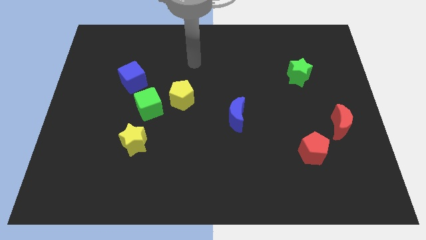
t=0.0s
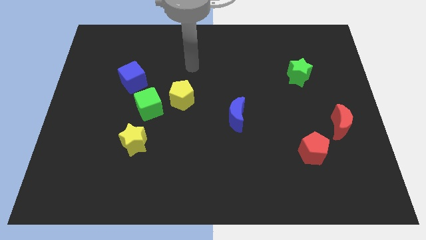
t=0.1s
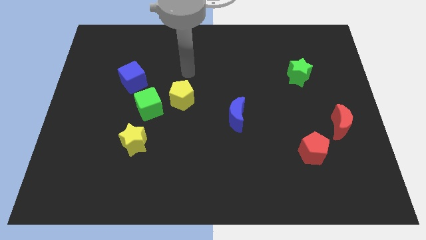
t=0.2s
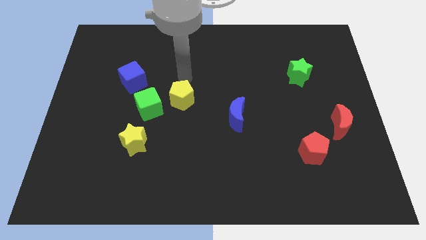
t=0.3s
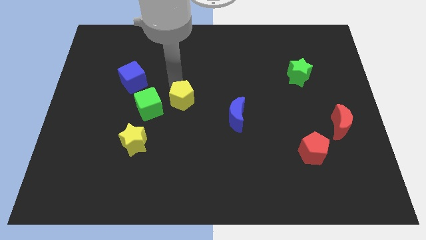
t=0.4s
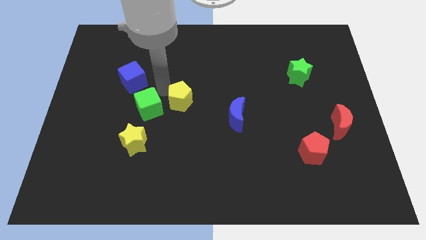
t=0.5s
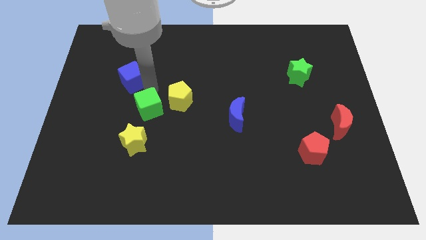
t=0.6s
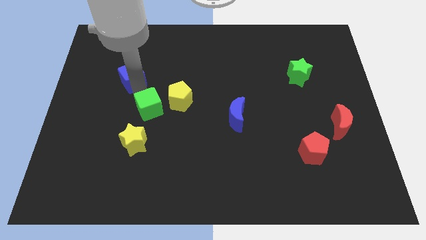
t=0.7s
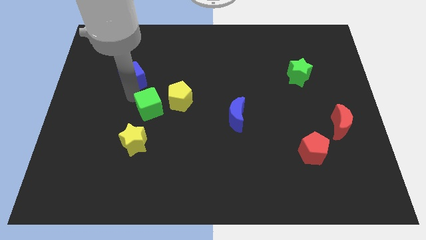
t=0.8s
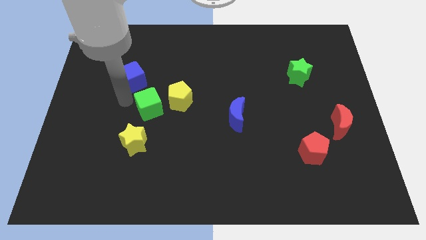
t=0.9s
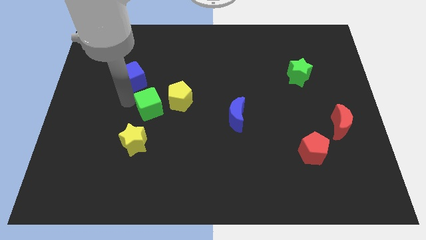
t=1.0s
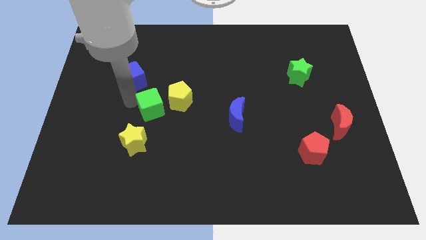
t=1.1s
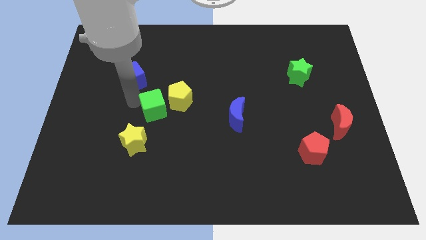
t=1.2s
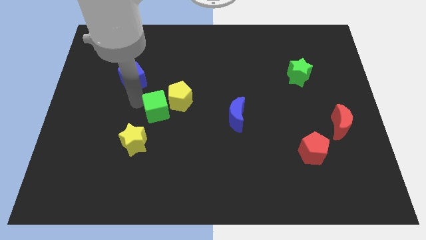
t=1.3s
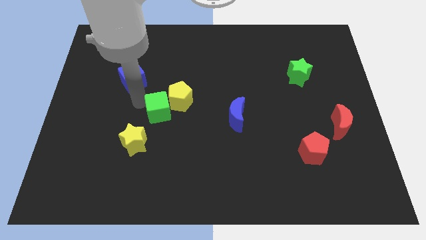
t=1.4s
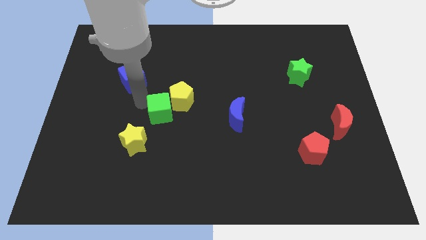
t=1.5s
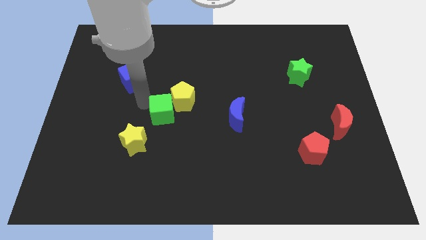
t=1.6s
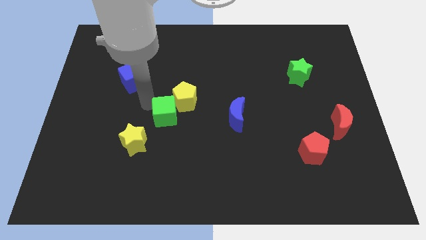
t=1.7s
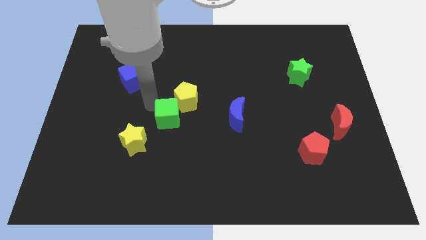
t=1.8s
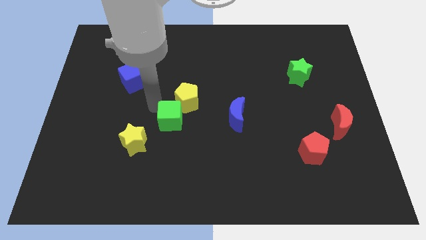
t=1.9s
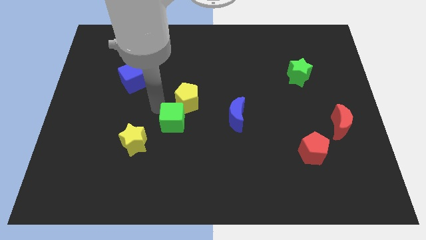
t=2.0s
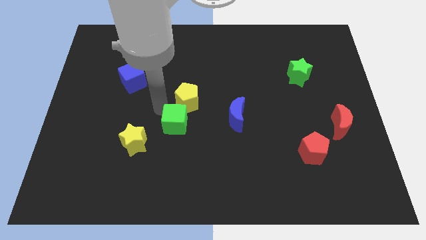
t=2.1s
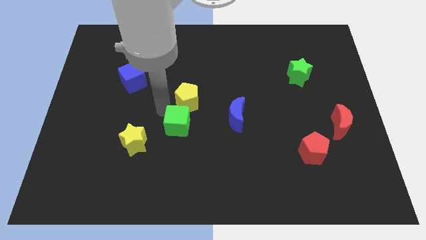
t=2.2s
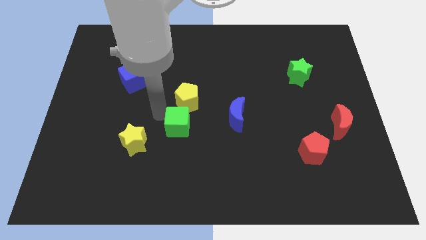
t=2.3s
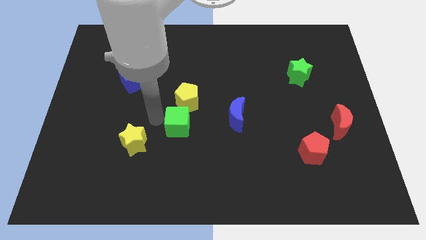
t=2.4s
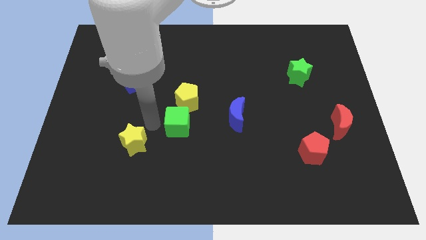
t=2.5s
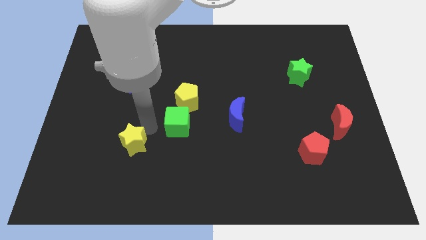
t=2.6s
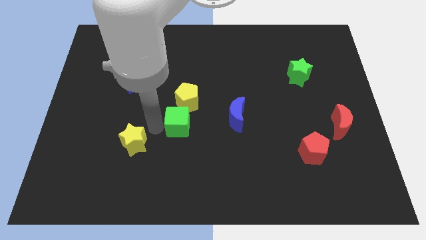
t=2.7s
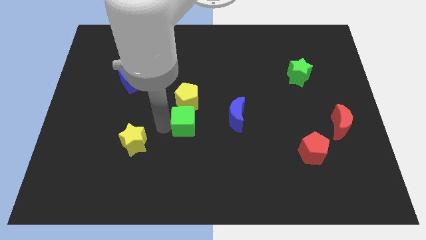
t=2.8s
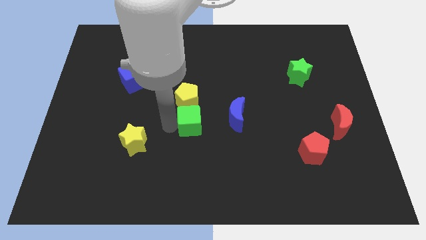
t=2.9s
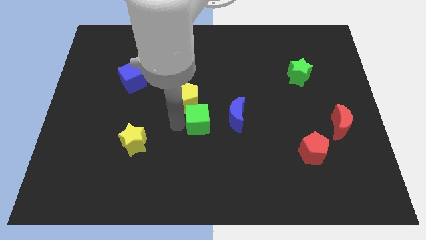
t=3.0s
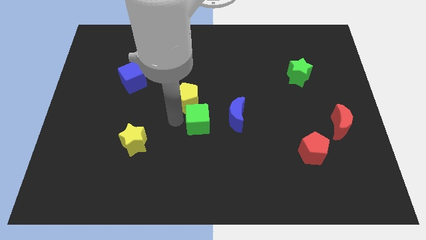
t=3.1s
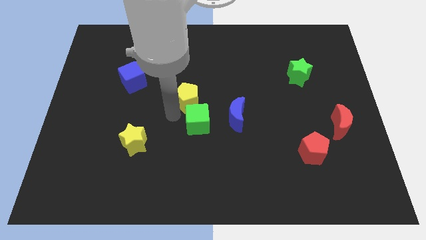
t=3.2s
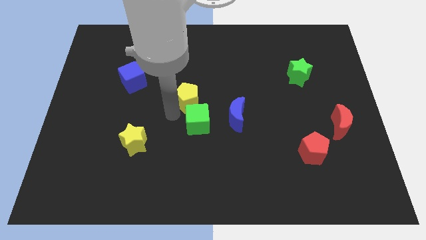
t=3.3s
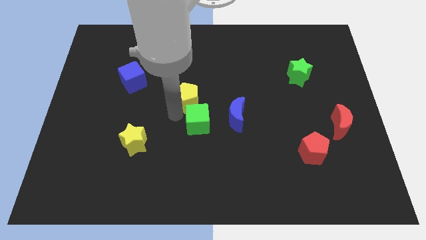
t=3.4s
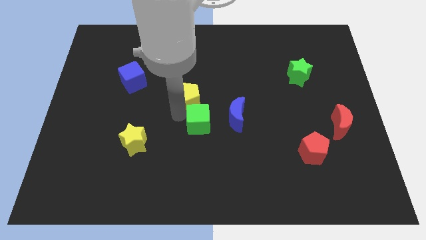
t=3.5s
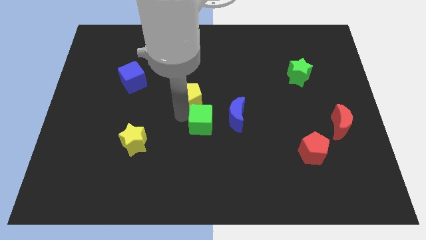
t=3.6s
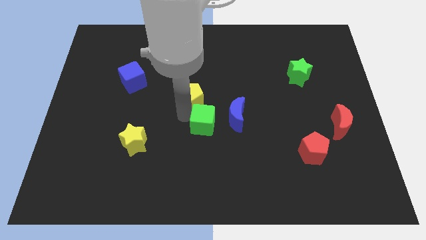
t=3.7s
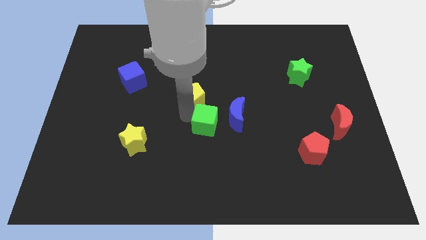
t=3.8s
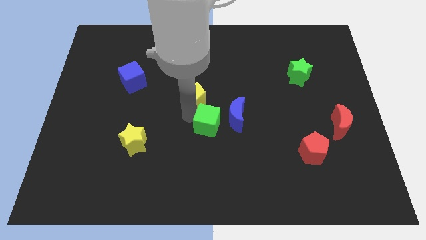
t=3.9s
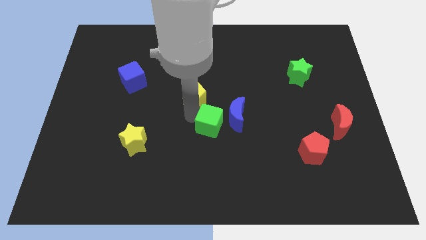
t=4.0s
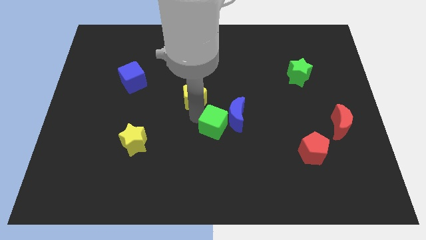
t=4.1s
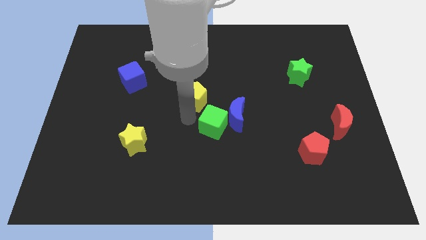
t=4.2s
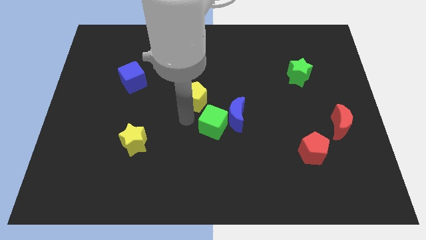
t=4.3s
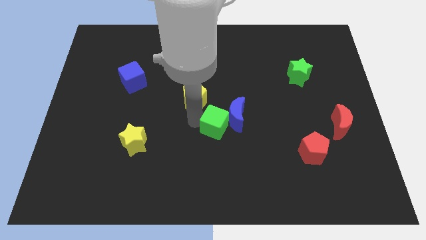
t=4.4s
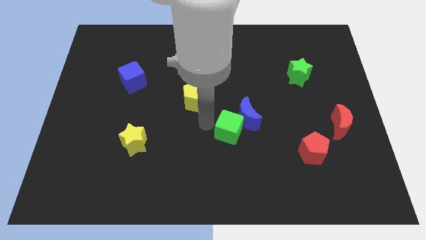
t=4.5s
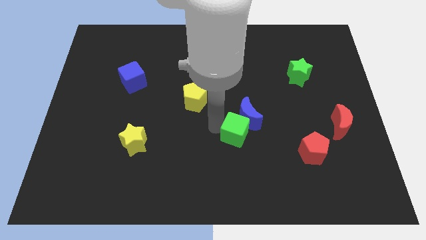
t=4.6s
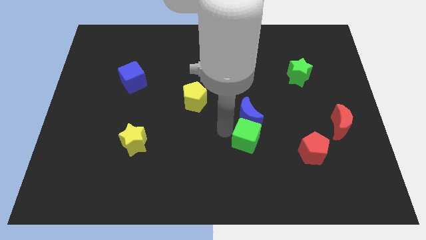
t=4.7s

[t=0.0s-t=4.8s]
move the green cube diagonally down and to the right of the blue moon

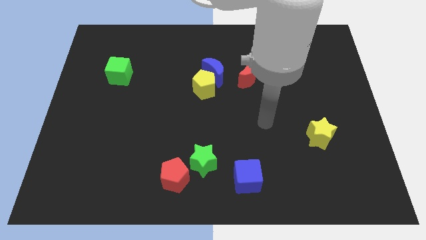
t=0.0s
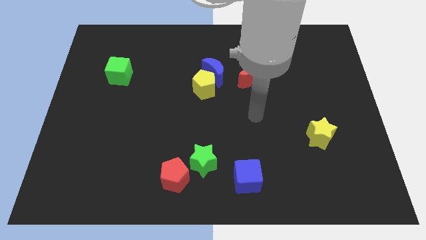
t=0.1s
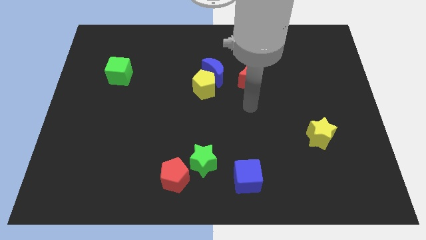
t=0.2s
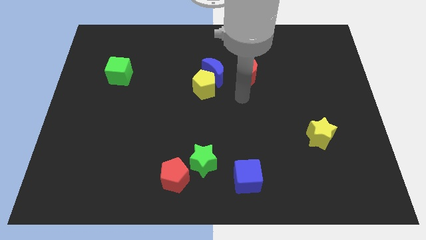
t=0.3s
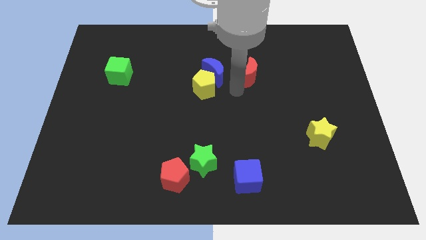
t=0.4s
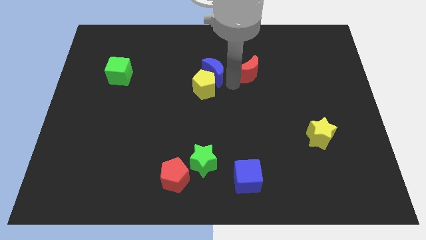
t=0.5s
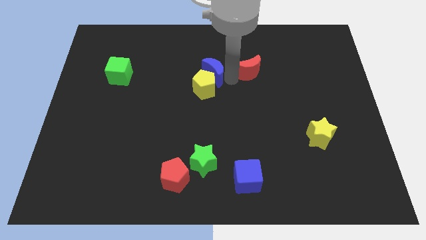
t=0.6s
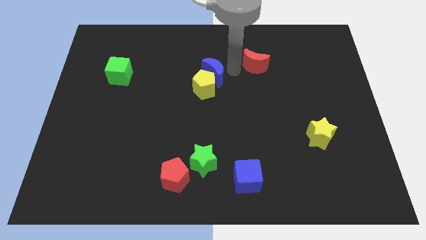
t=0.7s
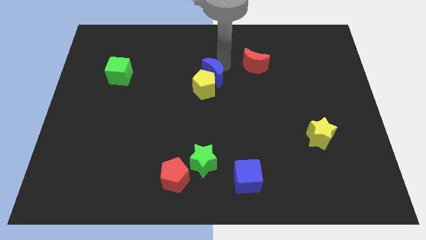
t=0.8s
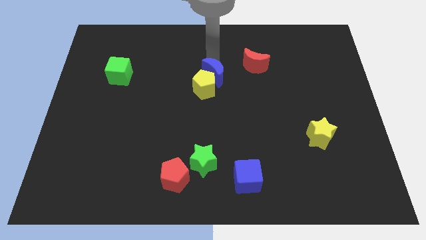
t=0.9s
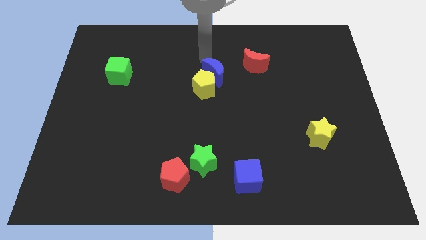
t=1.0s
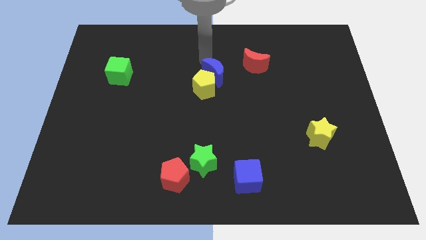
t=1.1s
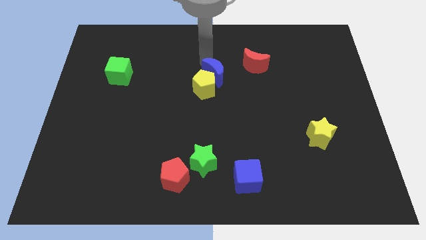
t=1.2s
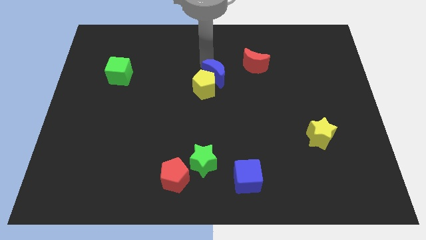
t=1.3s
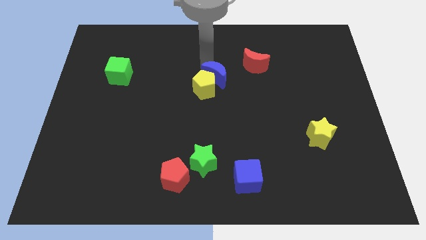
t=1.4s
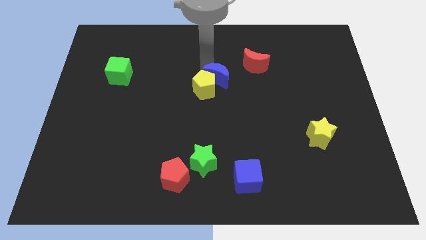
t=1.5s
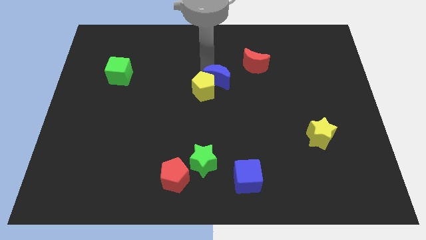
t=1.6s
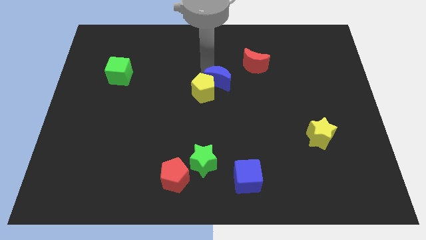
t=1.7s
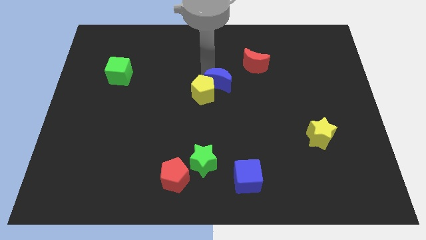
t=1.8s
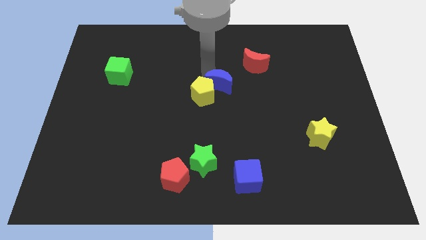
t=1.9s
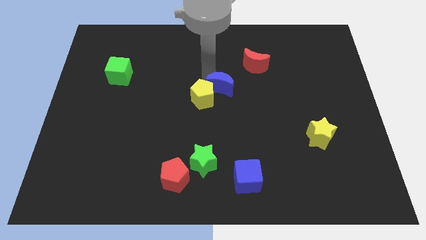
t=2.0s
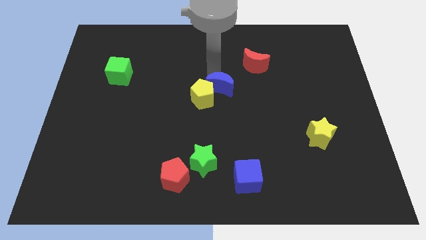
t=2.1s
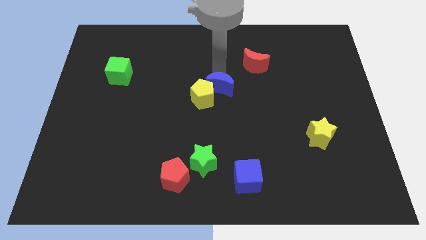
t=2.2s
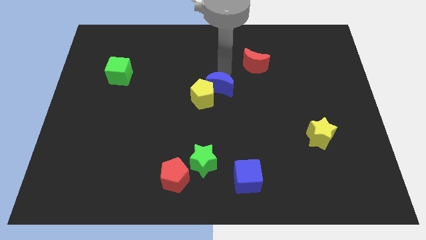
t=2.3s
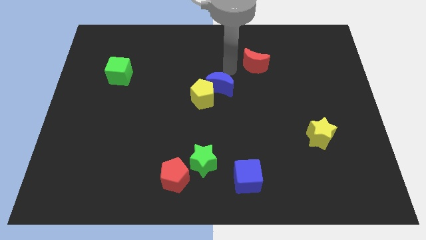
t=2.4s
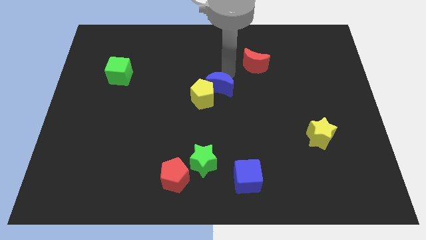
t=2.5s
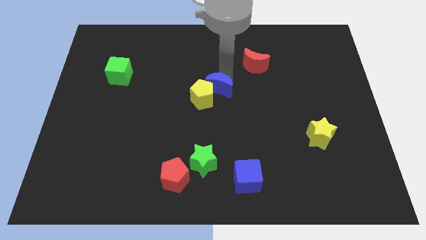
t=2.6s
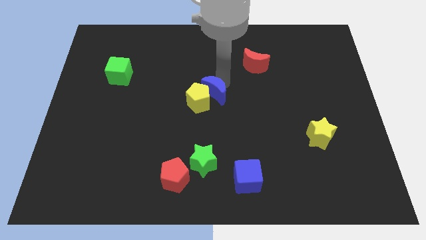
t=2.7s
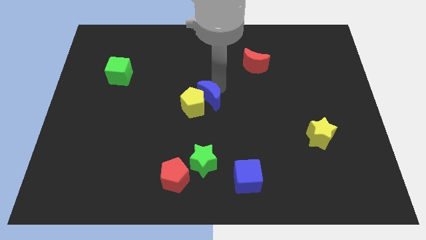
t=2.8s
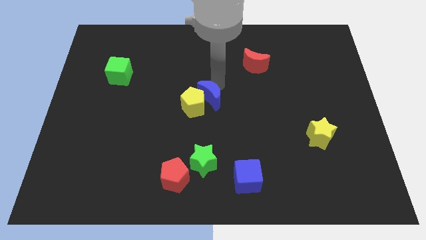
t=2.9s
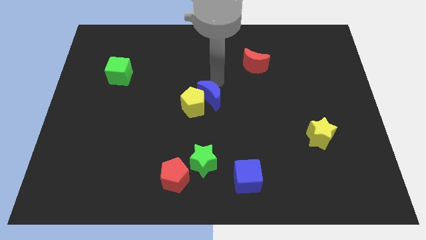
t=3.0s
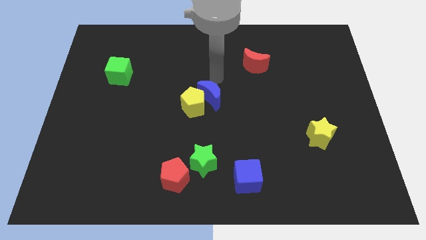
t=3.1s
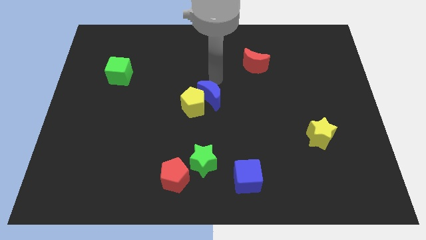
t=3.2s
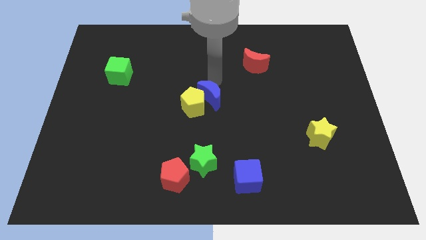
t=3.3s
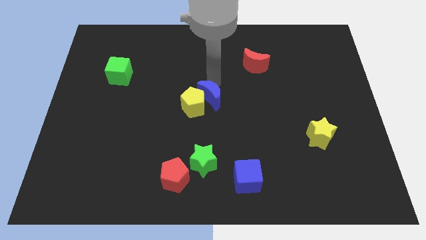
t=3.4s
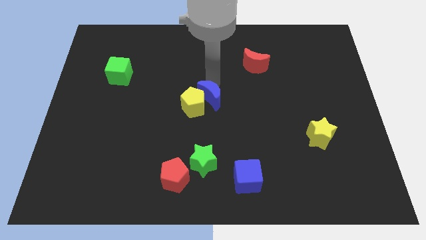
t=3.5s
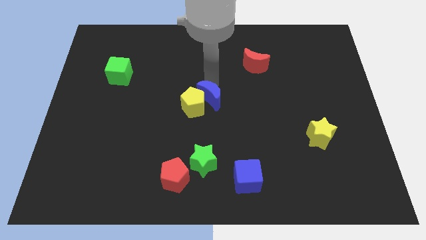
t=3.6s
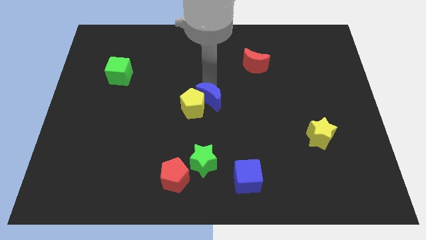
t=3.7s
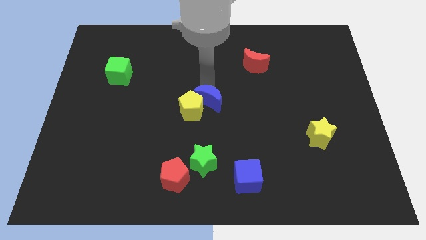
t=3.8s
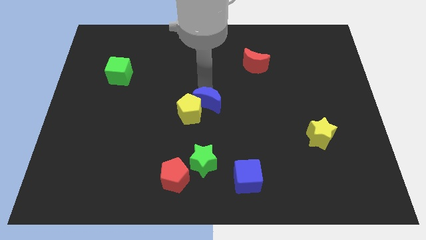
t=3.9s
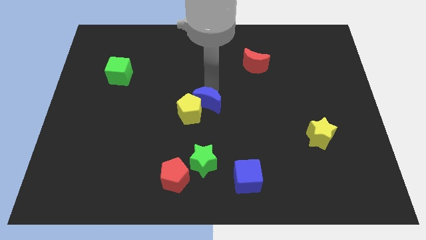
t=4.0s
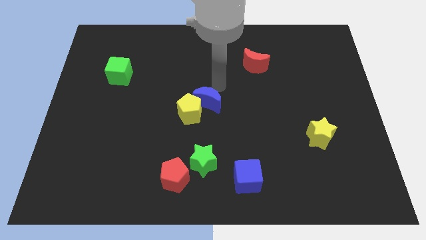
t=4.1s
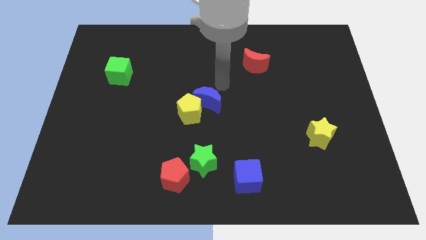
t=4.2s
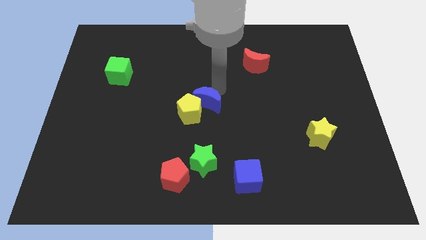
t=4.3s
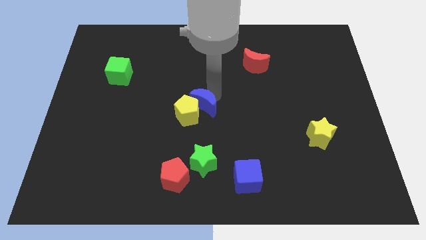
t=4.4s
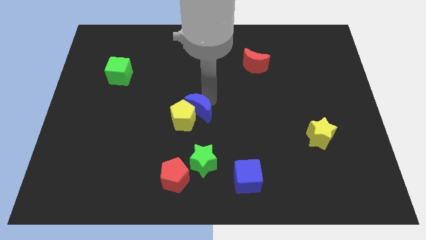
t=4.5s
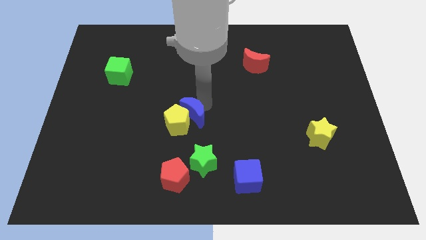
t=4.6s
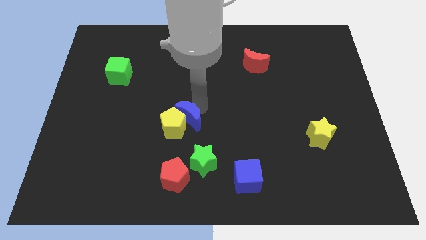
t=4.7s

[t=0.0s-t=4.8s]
put the blue moon to the top side of the red pentagon
